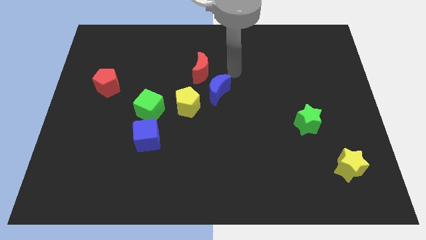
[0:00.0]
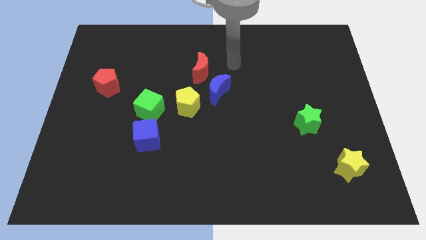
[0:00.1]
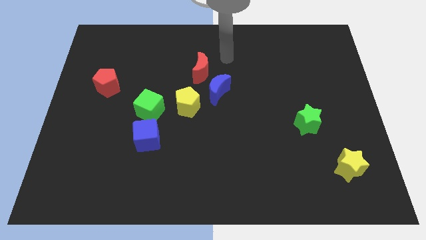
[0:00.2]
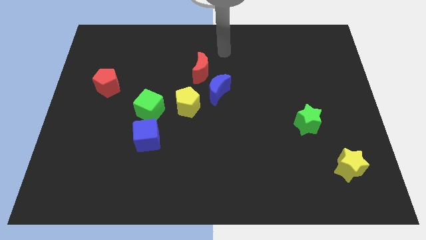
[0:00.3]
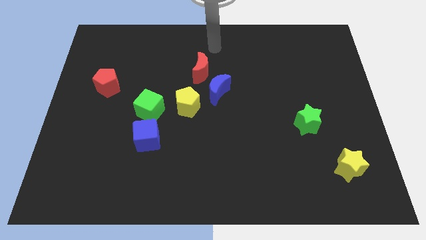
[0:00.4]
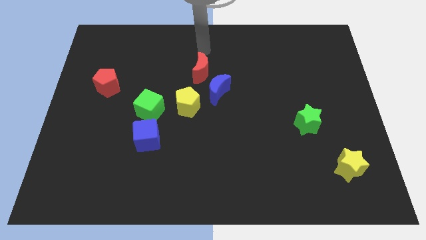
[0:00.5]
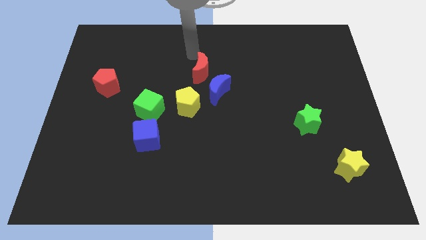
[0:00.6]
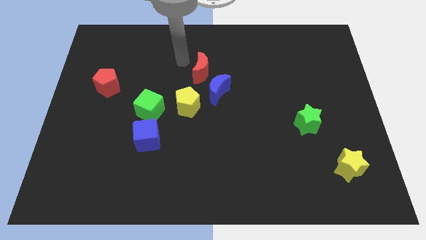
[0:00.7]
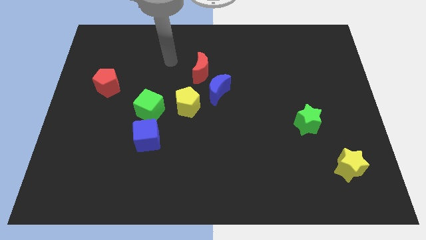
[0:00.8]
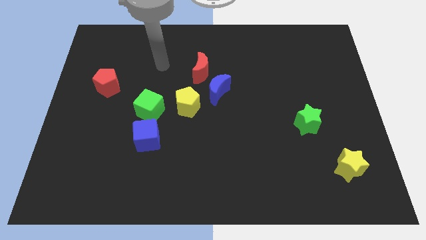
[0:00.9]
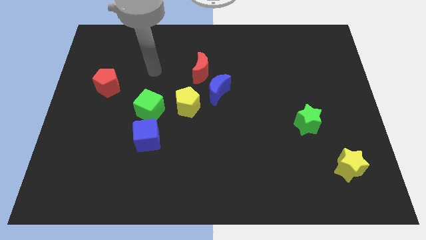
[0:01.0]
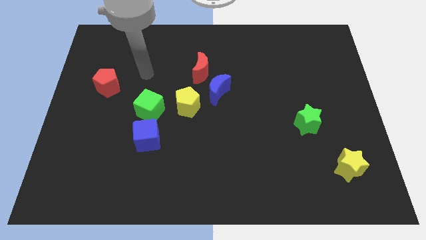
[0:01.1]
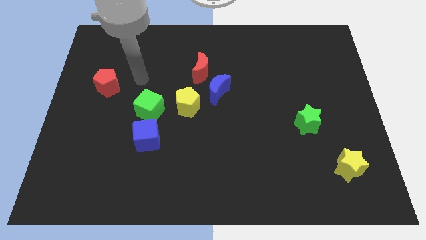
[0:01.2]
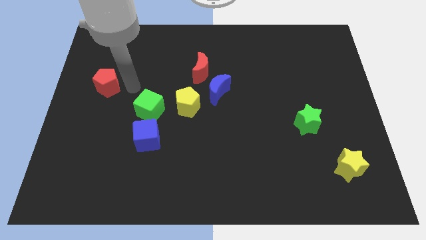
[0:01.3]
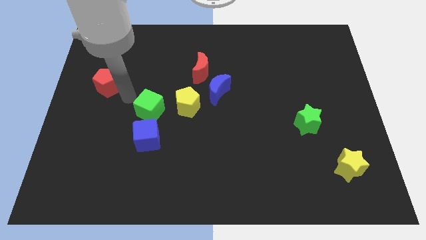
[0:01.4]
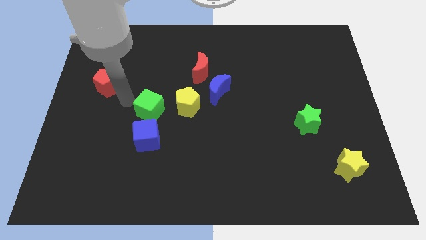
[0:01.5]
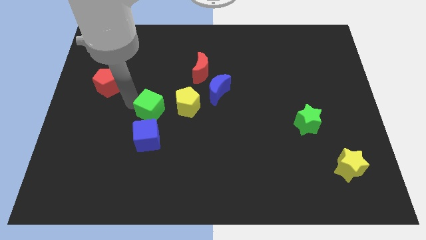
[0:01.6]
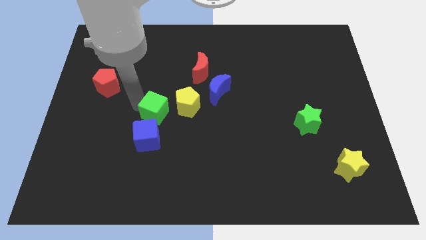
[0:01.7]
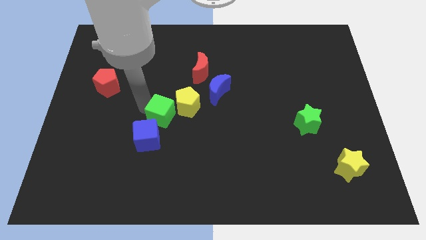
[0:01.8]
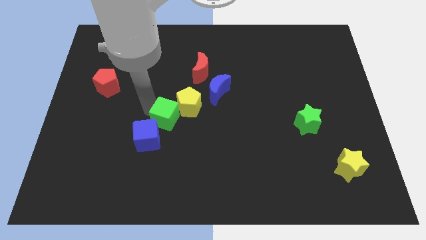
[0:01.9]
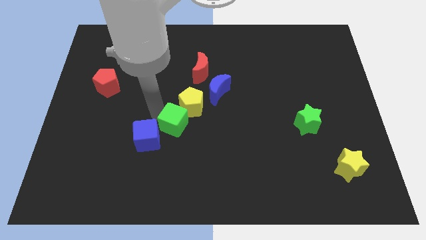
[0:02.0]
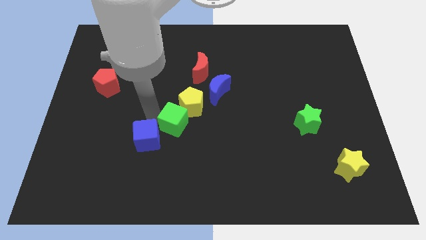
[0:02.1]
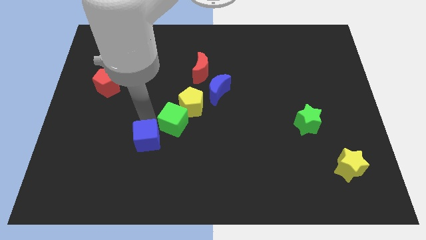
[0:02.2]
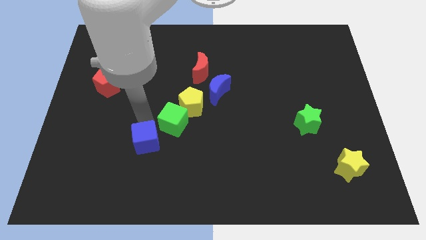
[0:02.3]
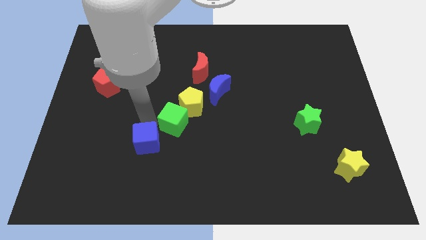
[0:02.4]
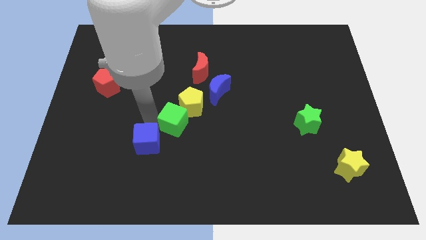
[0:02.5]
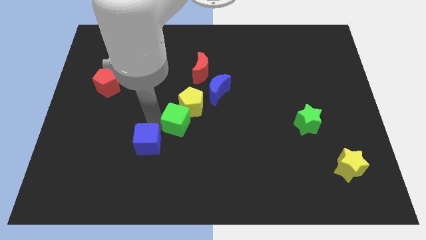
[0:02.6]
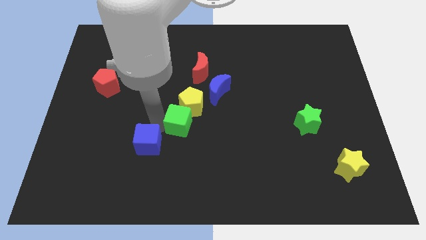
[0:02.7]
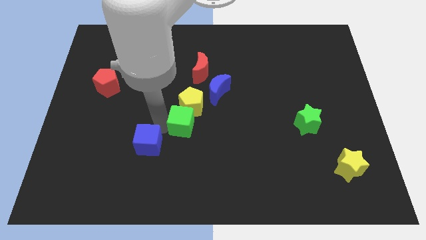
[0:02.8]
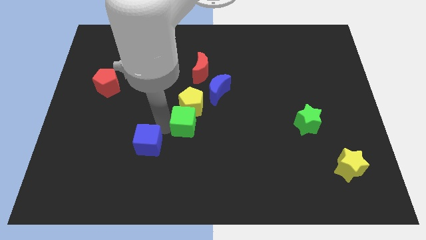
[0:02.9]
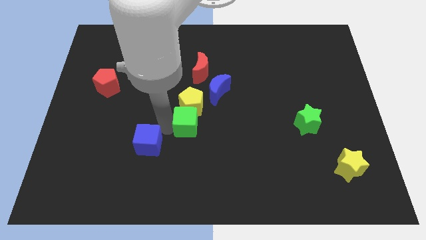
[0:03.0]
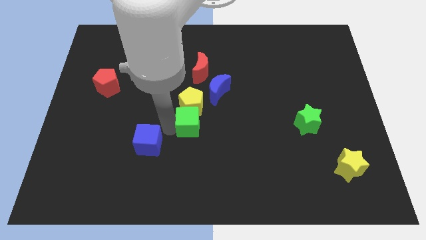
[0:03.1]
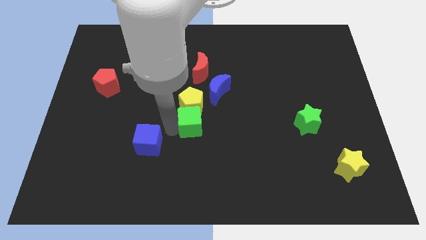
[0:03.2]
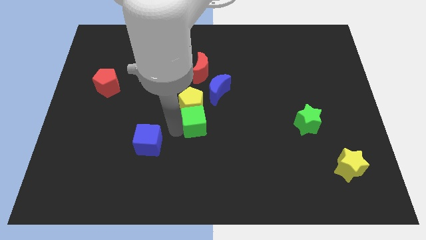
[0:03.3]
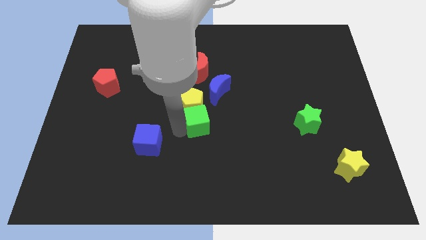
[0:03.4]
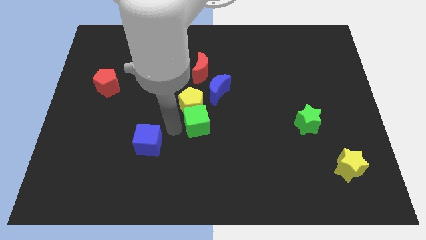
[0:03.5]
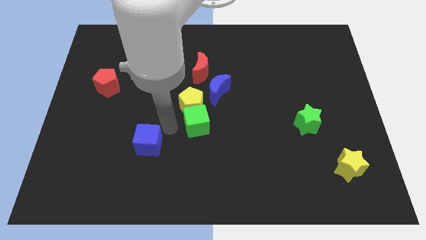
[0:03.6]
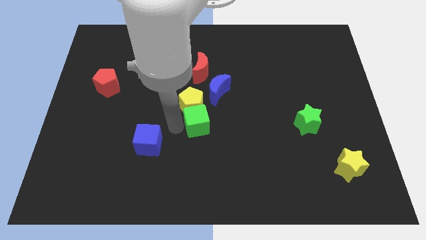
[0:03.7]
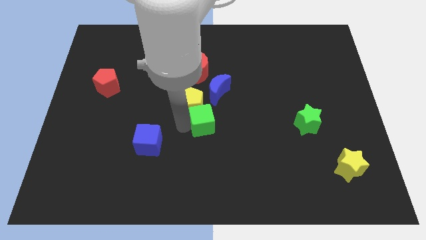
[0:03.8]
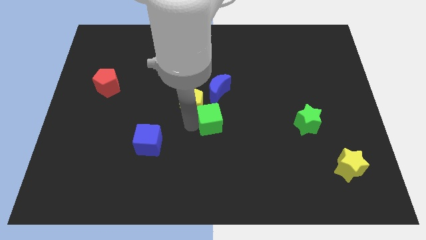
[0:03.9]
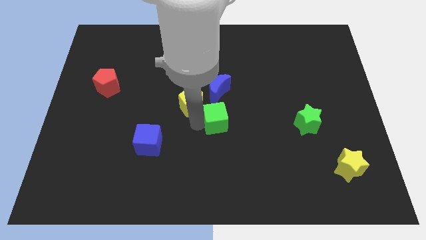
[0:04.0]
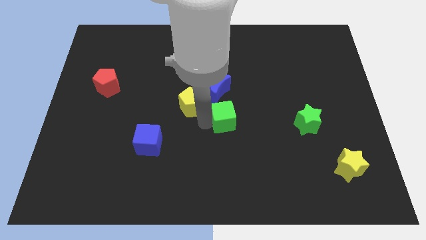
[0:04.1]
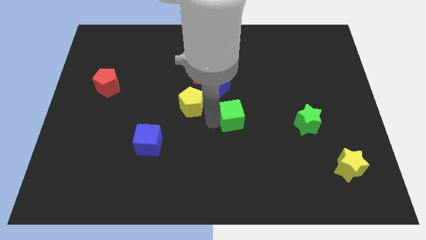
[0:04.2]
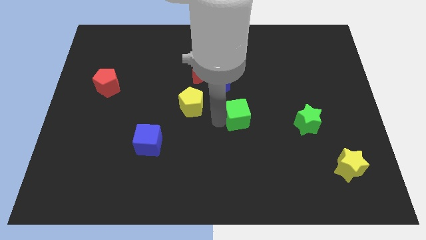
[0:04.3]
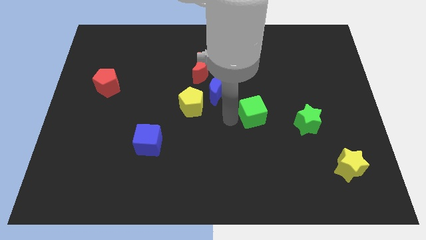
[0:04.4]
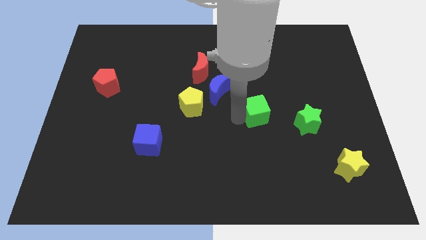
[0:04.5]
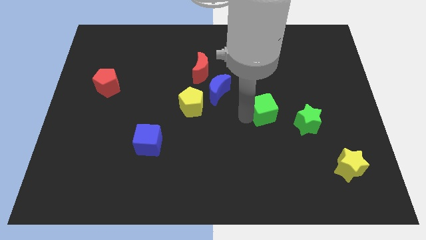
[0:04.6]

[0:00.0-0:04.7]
slide the green cube diagonally up and to the left of the green star

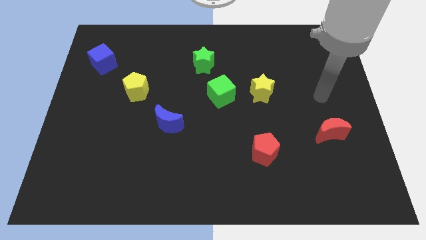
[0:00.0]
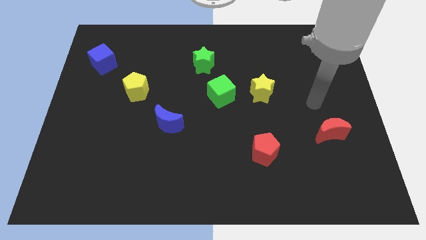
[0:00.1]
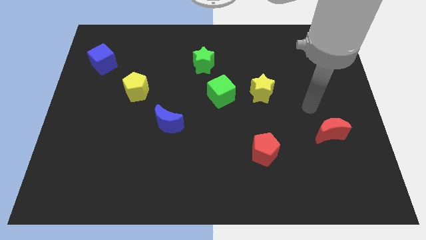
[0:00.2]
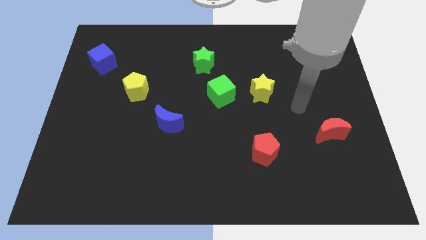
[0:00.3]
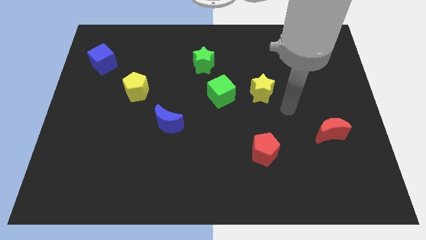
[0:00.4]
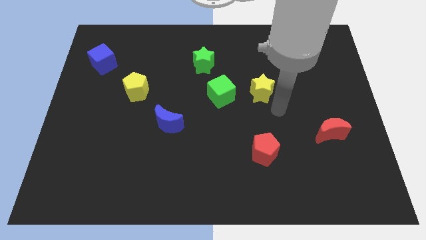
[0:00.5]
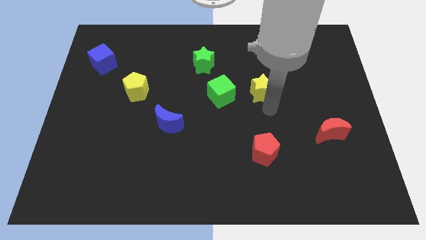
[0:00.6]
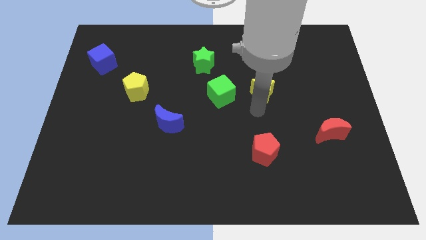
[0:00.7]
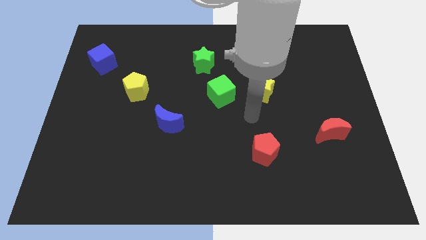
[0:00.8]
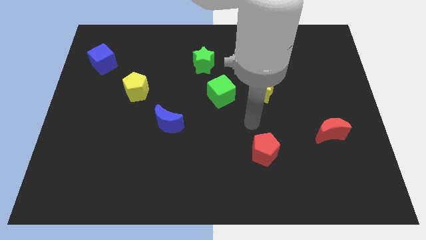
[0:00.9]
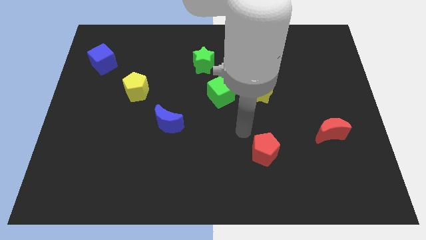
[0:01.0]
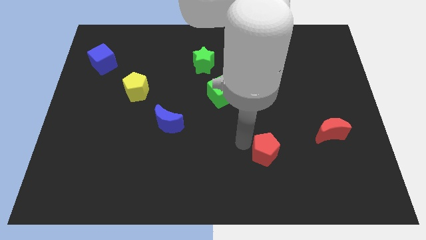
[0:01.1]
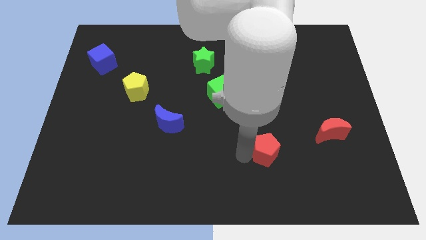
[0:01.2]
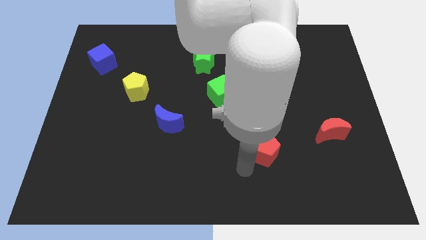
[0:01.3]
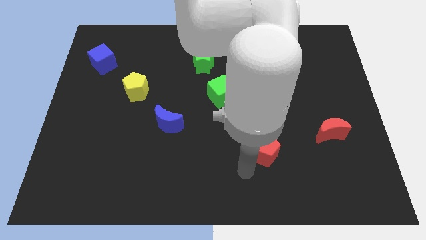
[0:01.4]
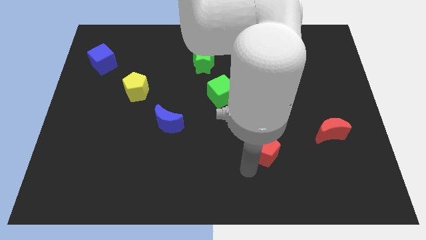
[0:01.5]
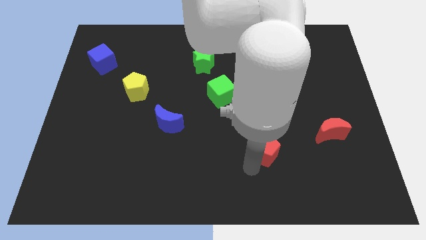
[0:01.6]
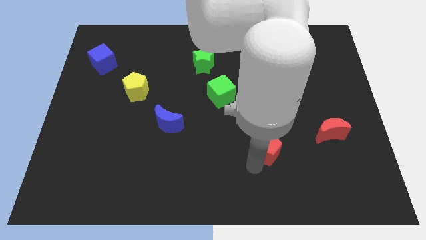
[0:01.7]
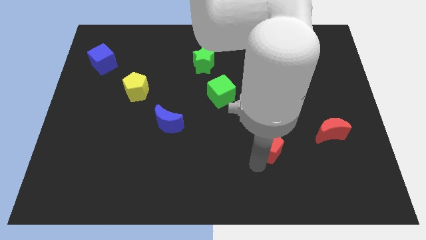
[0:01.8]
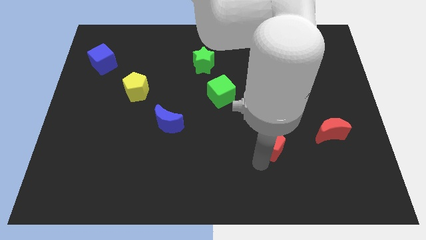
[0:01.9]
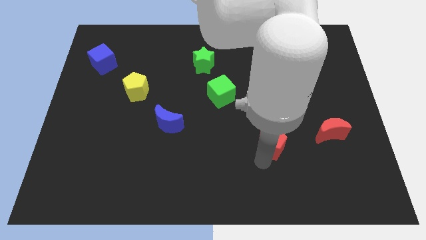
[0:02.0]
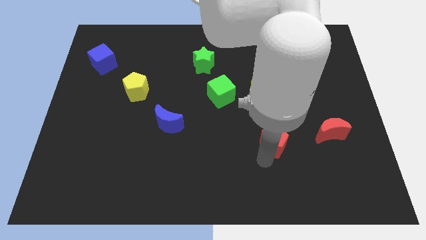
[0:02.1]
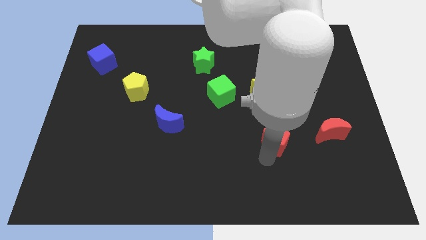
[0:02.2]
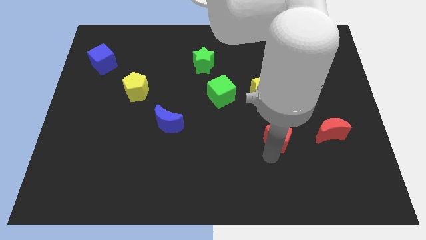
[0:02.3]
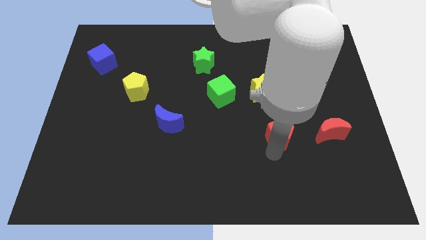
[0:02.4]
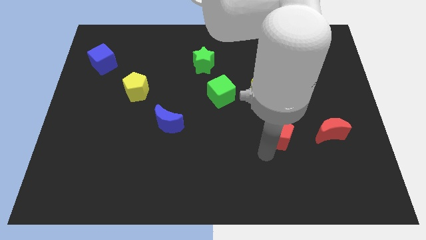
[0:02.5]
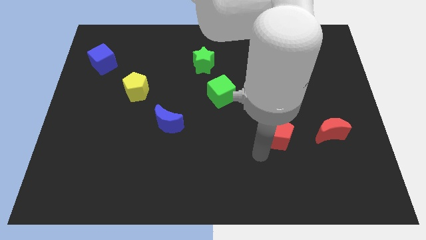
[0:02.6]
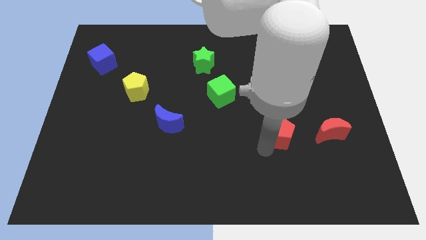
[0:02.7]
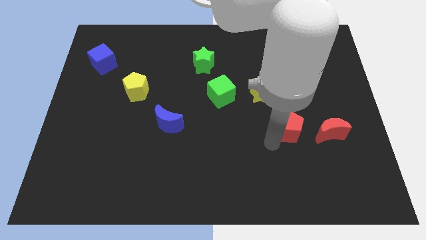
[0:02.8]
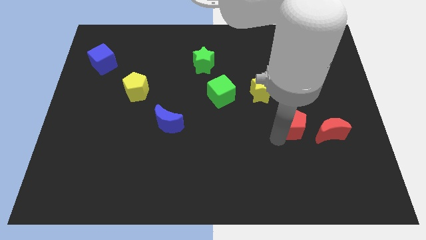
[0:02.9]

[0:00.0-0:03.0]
put the red pentagon to the top left side of the red moon

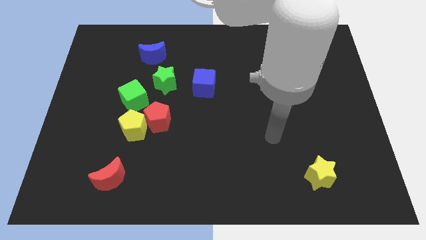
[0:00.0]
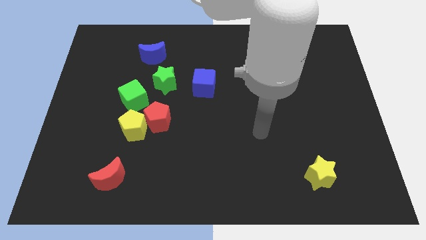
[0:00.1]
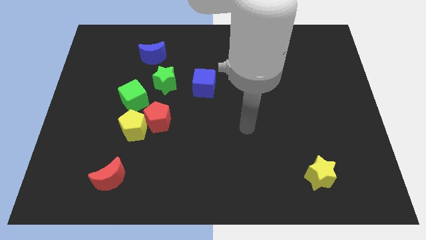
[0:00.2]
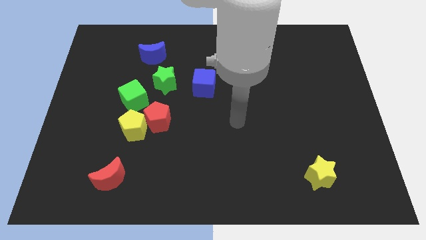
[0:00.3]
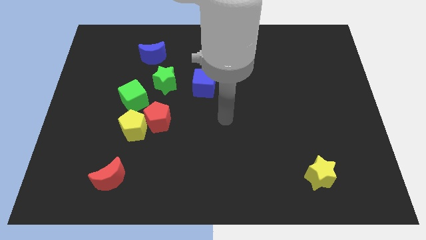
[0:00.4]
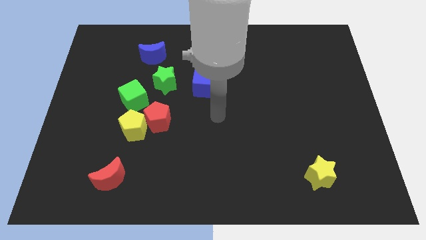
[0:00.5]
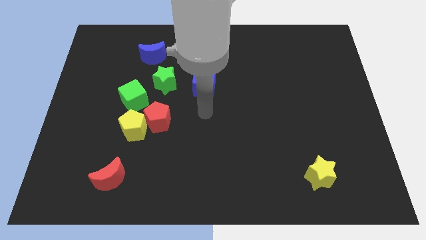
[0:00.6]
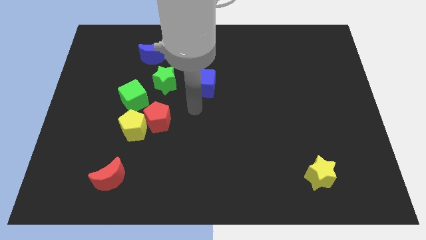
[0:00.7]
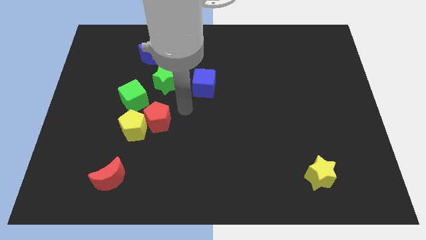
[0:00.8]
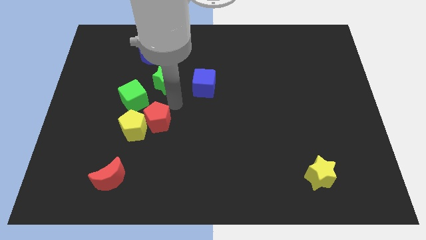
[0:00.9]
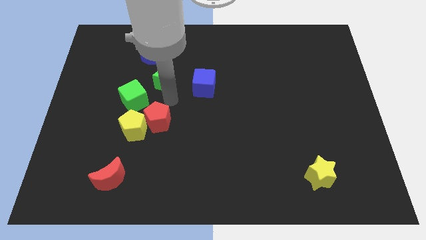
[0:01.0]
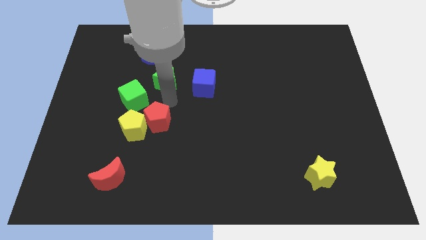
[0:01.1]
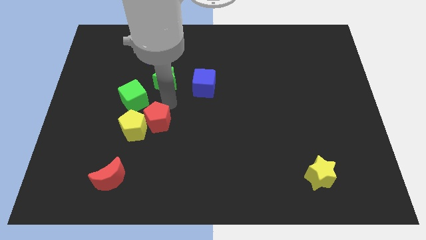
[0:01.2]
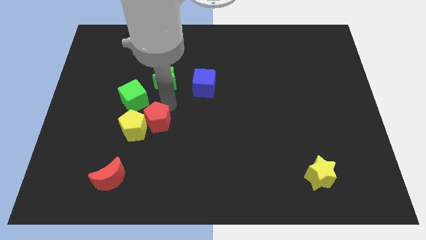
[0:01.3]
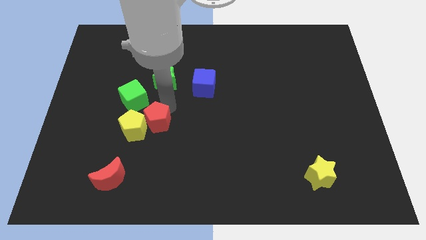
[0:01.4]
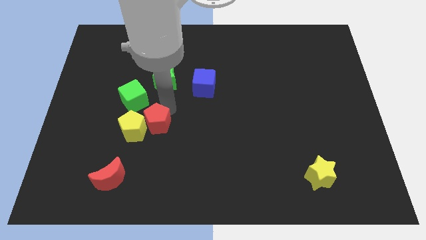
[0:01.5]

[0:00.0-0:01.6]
put the red pentagon to the bottom right of the yellow pentagon
